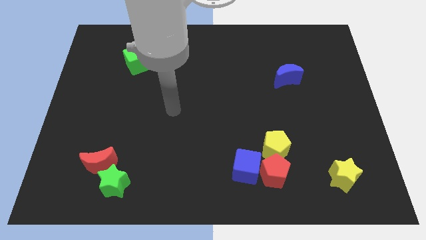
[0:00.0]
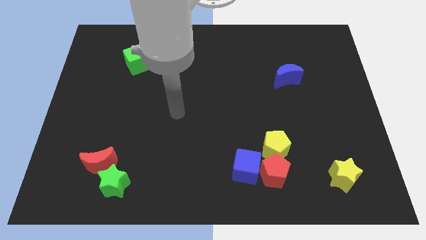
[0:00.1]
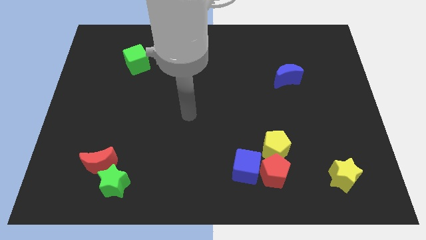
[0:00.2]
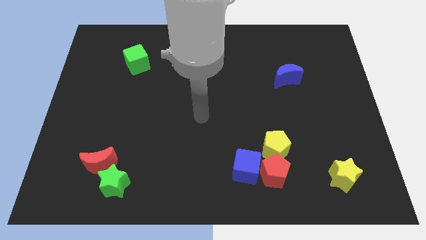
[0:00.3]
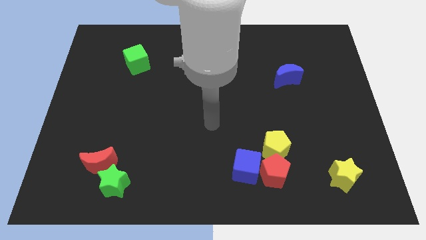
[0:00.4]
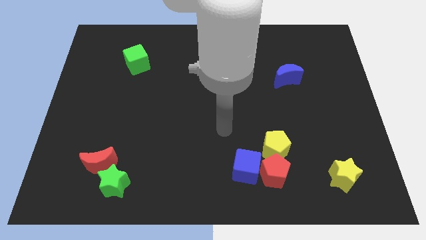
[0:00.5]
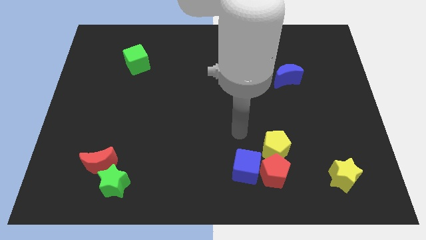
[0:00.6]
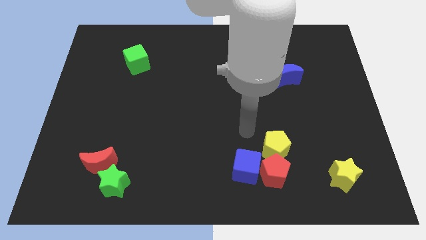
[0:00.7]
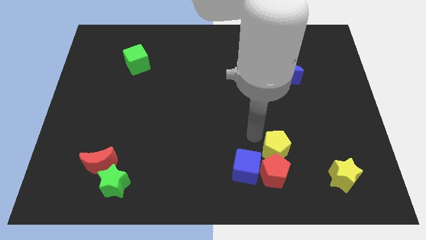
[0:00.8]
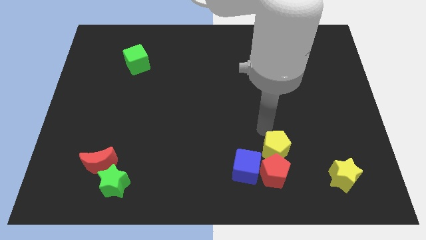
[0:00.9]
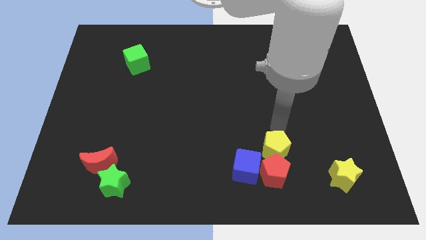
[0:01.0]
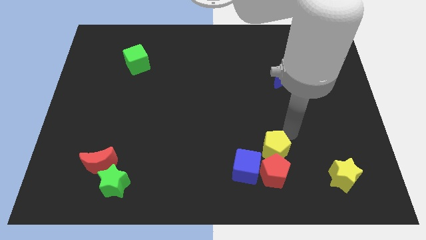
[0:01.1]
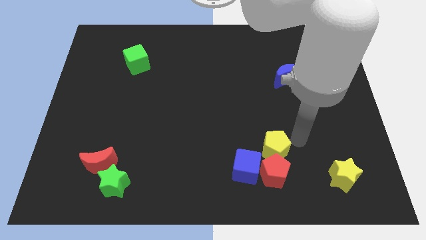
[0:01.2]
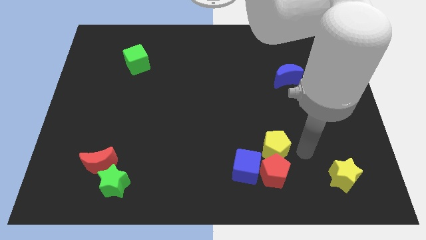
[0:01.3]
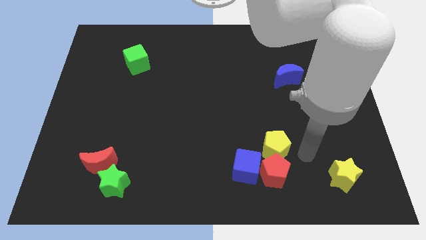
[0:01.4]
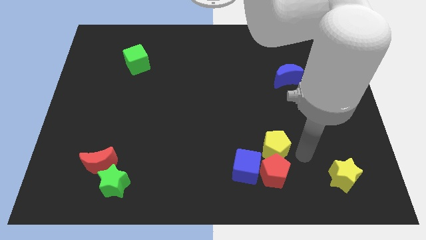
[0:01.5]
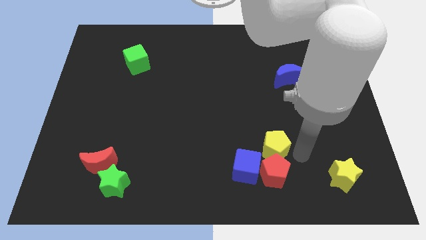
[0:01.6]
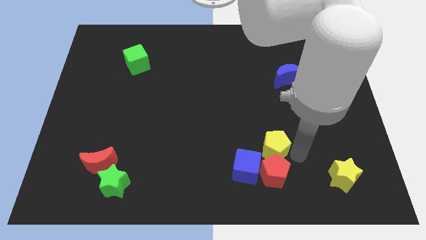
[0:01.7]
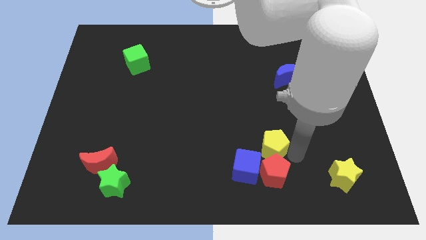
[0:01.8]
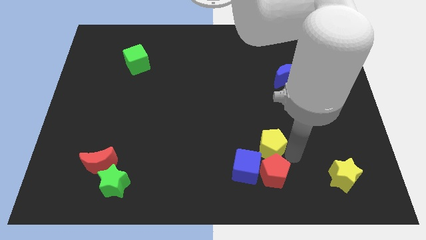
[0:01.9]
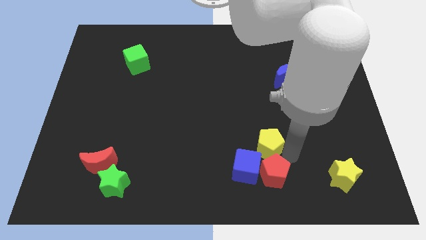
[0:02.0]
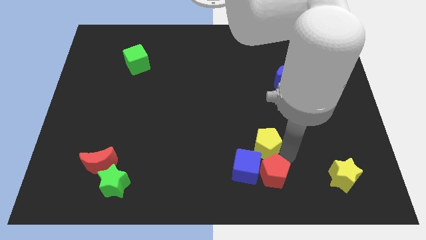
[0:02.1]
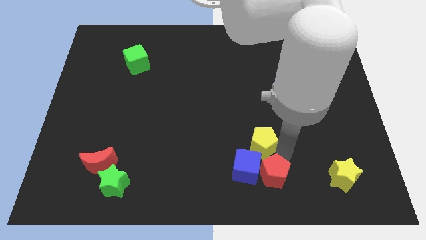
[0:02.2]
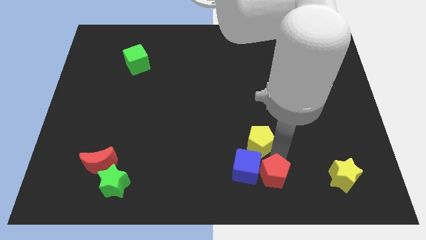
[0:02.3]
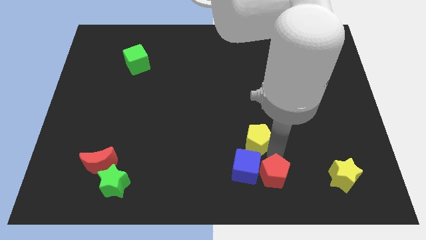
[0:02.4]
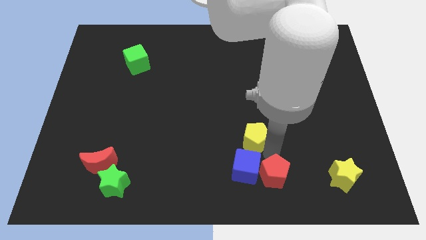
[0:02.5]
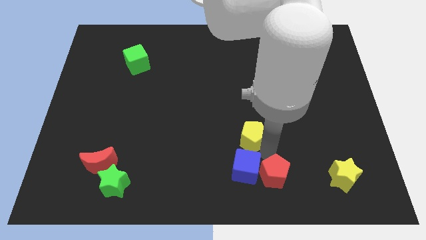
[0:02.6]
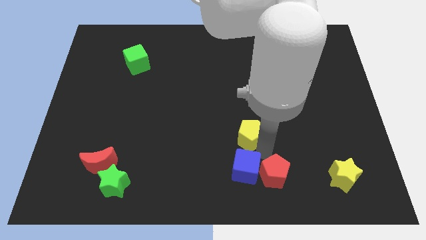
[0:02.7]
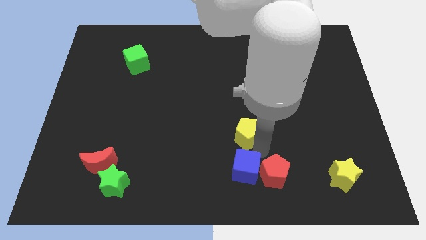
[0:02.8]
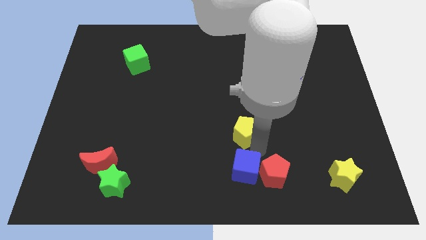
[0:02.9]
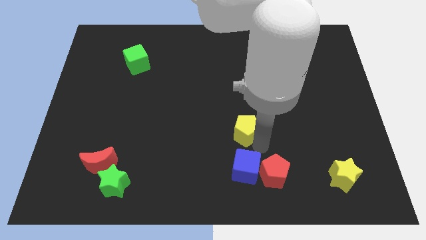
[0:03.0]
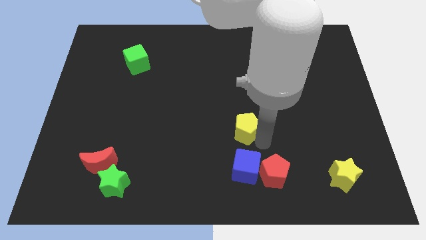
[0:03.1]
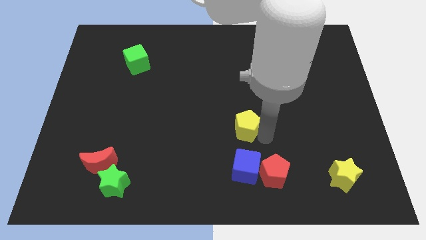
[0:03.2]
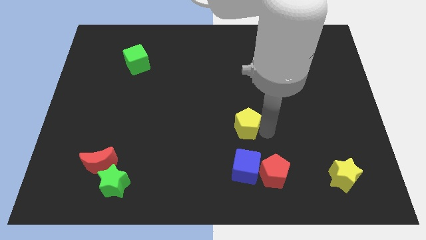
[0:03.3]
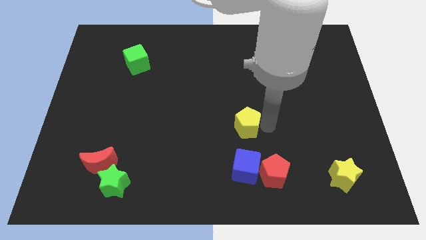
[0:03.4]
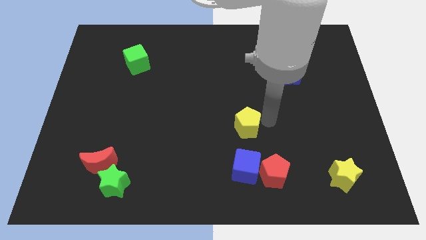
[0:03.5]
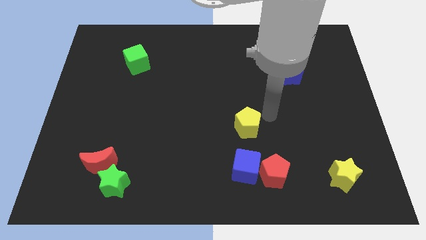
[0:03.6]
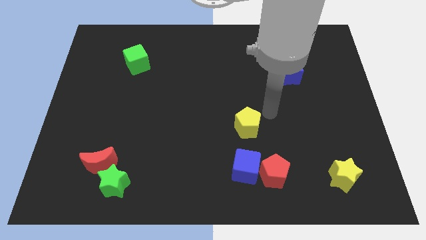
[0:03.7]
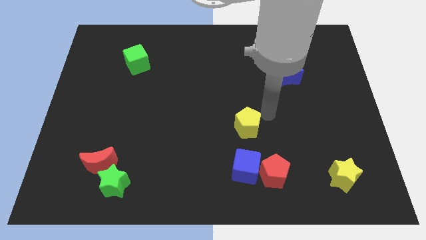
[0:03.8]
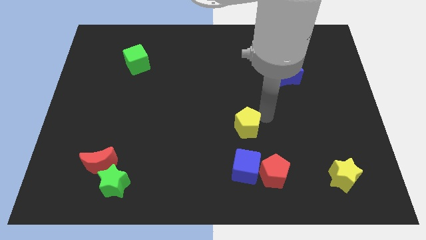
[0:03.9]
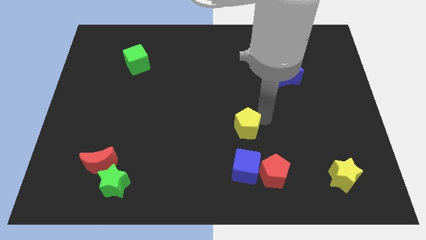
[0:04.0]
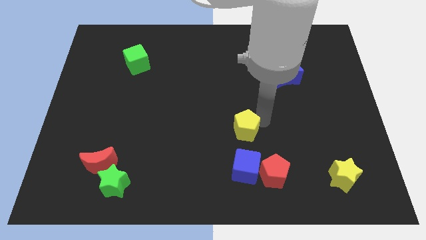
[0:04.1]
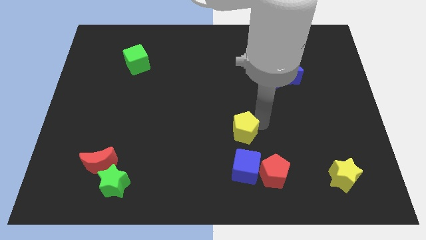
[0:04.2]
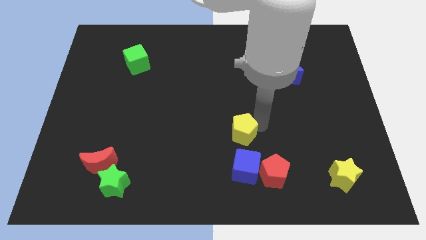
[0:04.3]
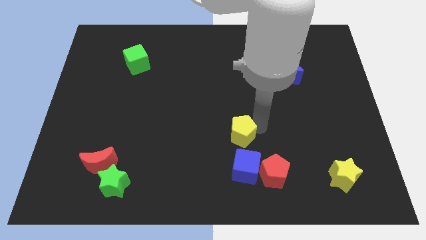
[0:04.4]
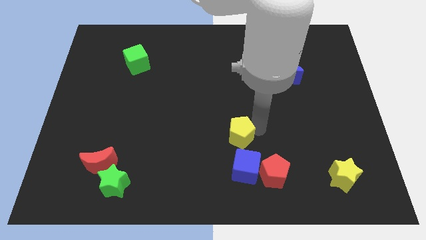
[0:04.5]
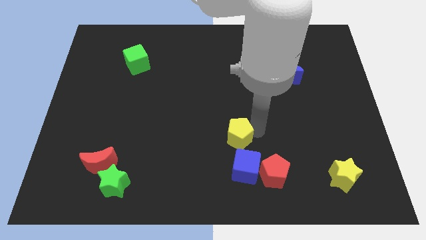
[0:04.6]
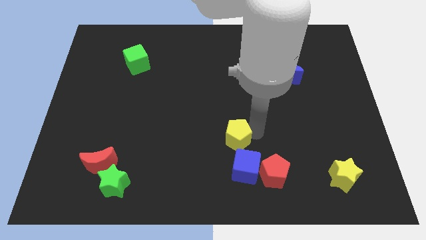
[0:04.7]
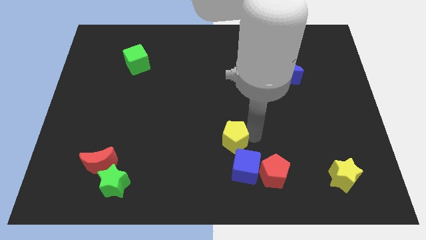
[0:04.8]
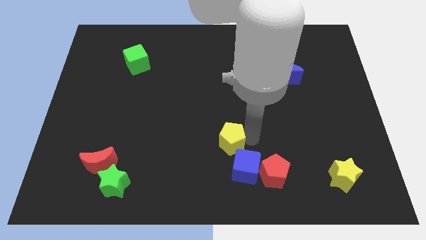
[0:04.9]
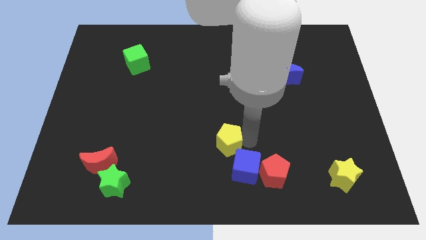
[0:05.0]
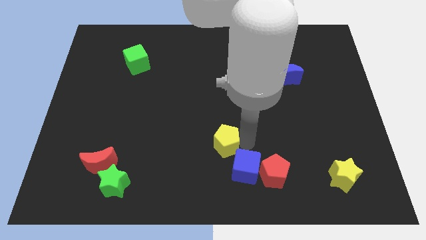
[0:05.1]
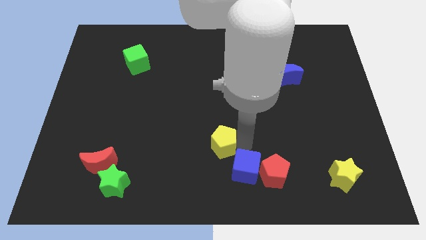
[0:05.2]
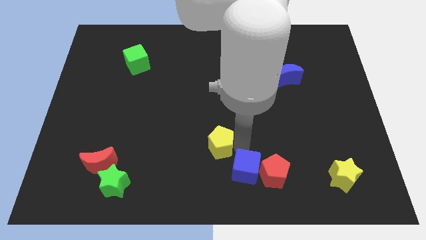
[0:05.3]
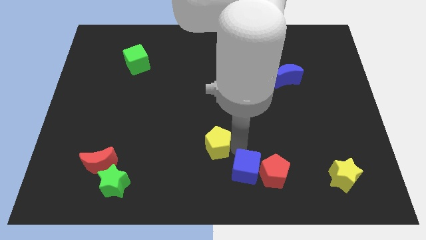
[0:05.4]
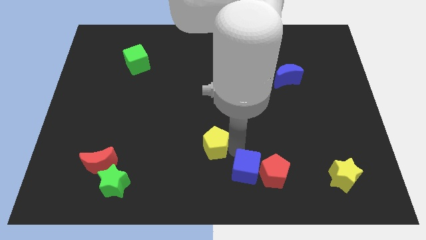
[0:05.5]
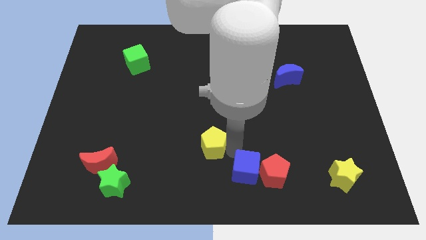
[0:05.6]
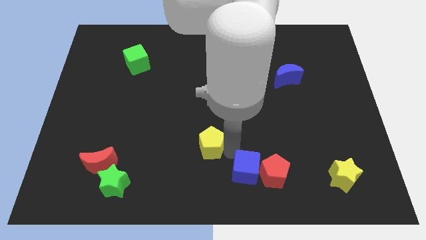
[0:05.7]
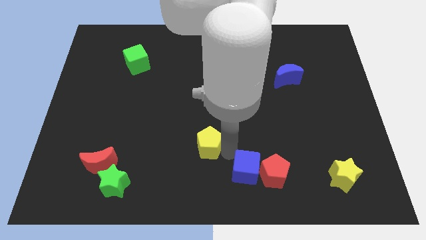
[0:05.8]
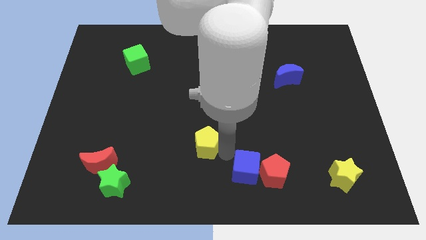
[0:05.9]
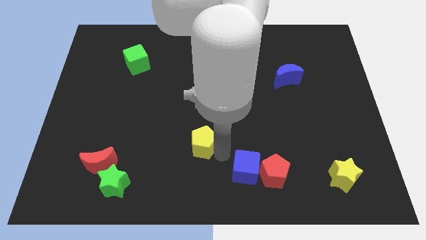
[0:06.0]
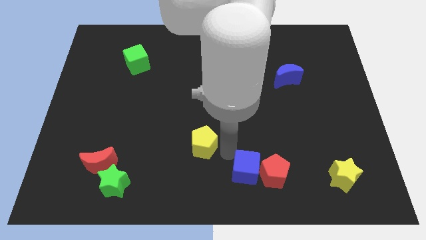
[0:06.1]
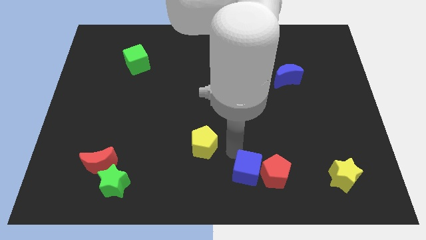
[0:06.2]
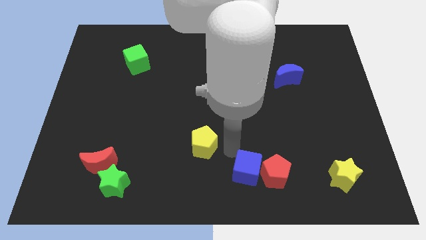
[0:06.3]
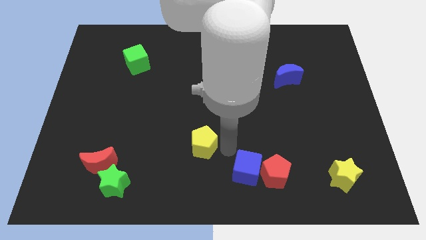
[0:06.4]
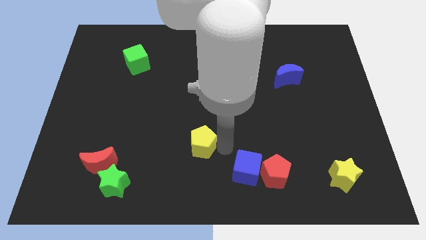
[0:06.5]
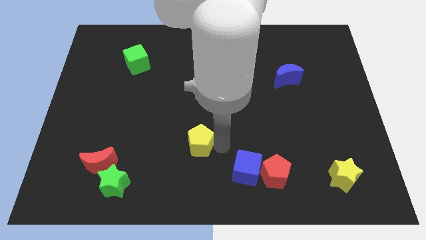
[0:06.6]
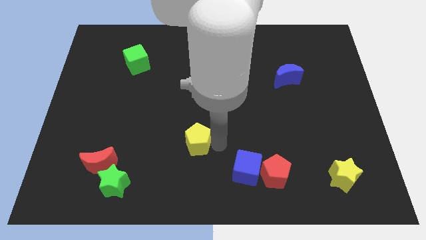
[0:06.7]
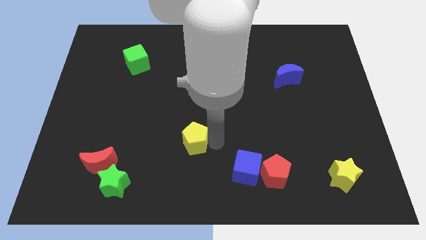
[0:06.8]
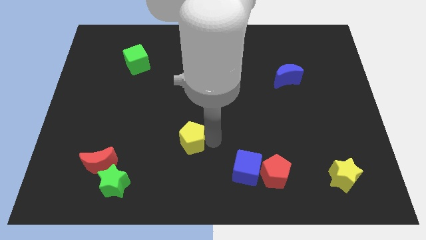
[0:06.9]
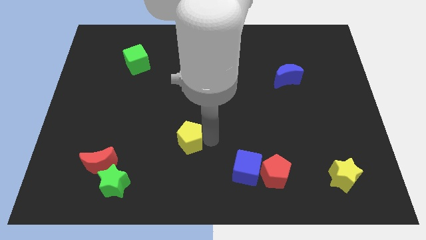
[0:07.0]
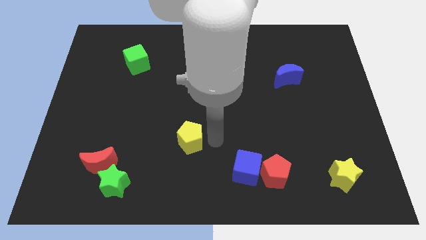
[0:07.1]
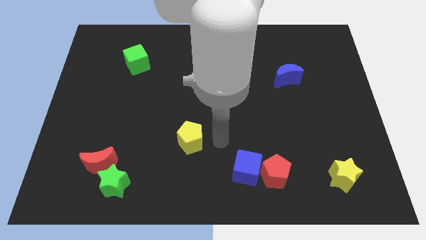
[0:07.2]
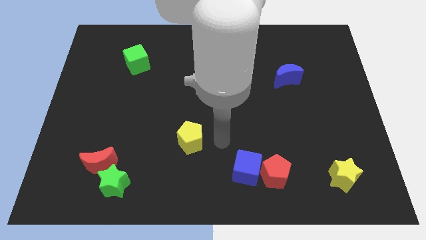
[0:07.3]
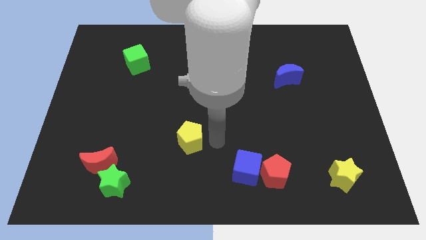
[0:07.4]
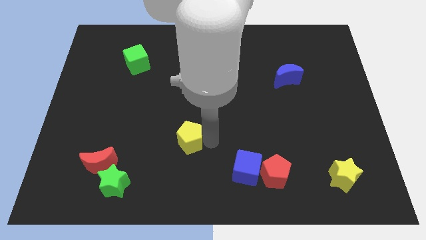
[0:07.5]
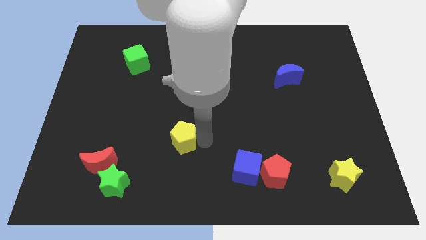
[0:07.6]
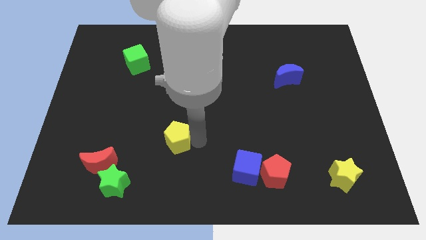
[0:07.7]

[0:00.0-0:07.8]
push the yellow pentagon left
